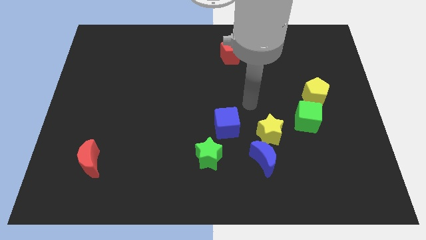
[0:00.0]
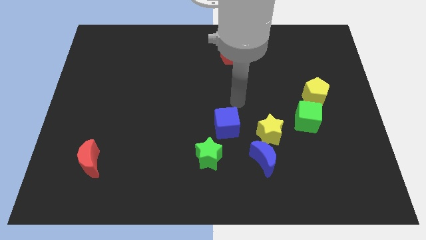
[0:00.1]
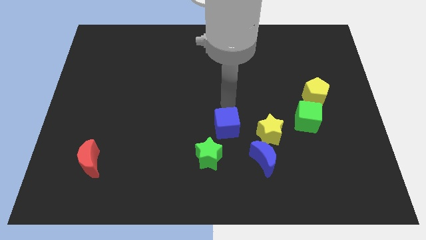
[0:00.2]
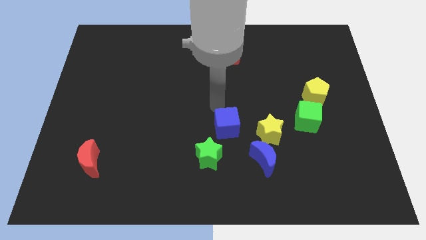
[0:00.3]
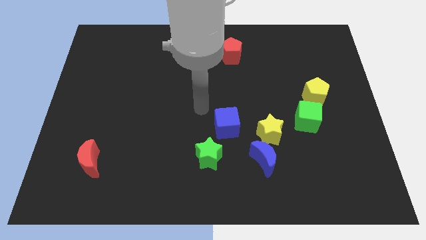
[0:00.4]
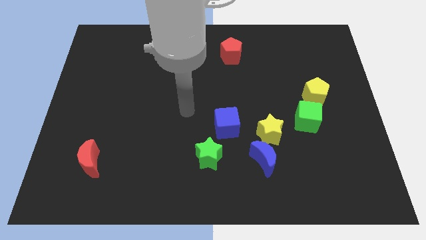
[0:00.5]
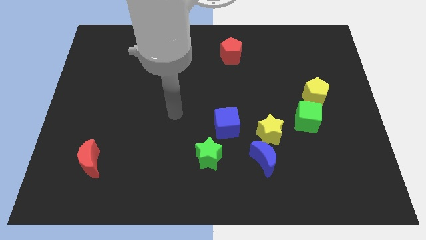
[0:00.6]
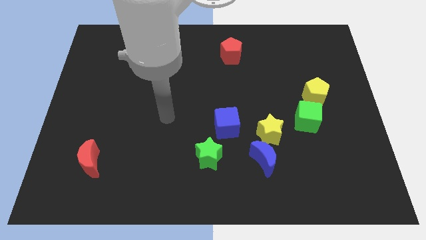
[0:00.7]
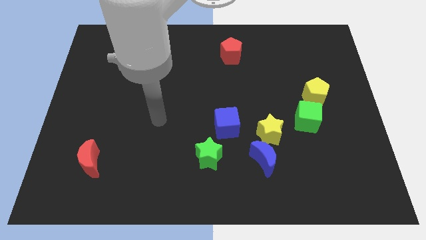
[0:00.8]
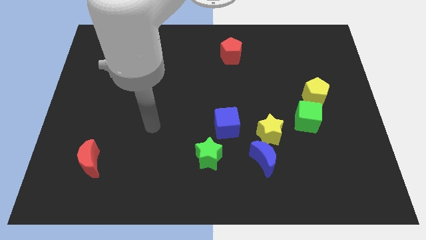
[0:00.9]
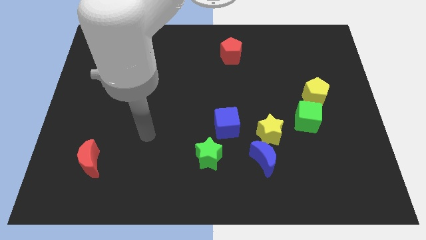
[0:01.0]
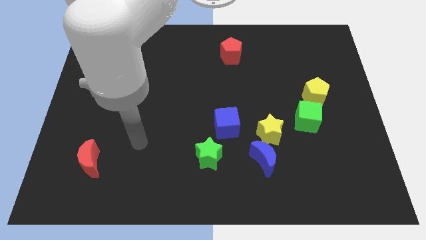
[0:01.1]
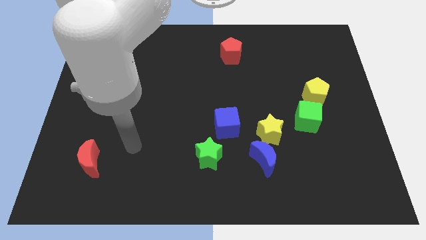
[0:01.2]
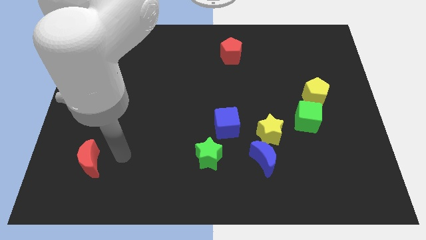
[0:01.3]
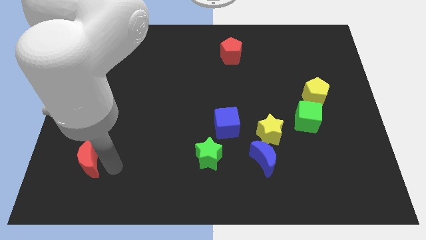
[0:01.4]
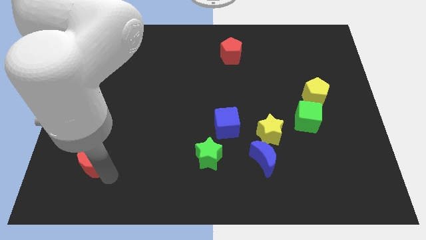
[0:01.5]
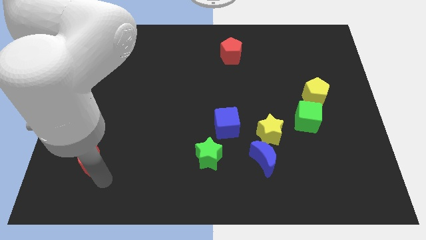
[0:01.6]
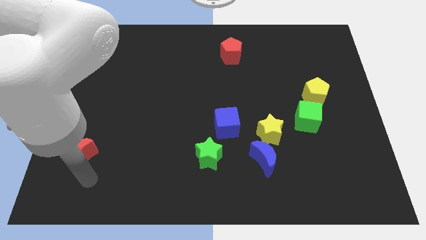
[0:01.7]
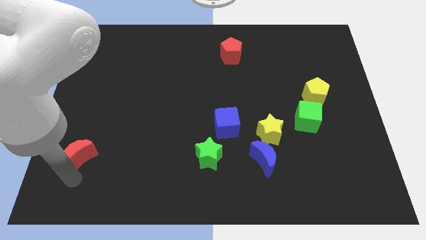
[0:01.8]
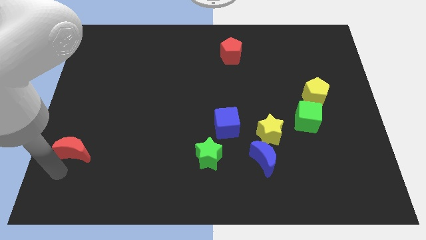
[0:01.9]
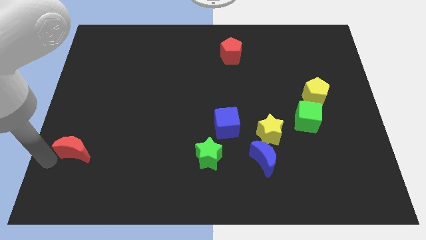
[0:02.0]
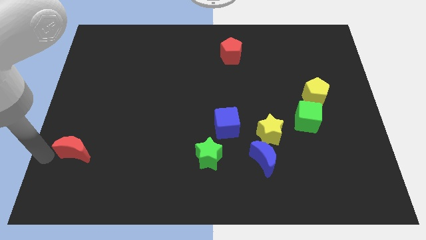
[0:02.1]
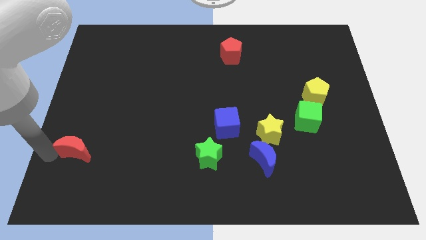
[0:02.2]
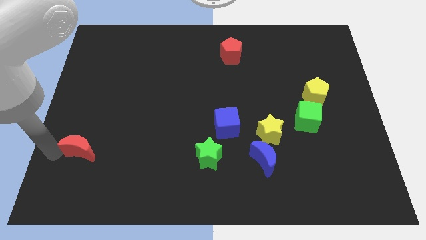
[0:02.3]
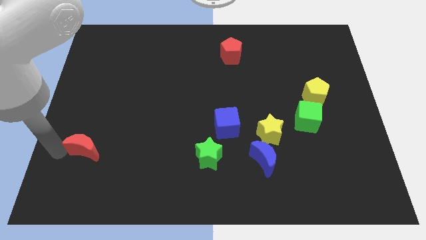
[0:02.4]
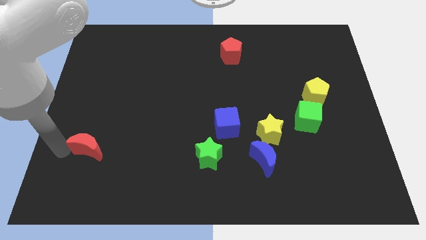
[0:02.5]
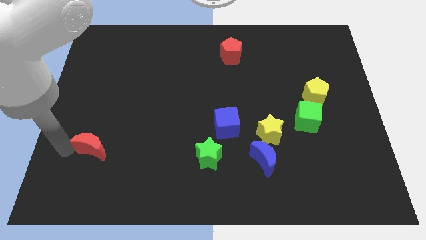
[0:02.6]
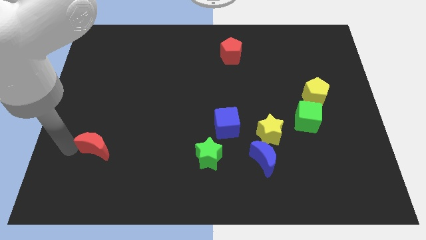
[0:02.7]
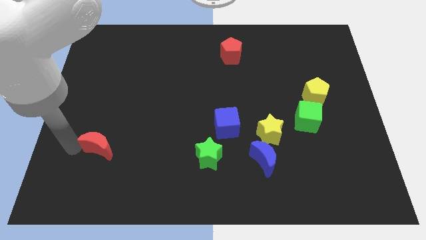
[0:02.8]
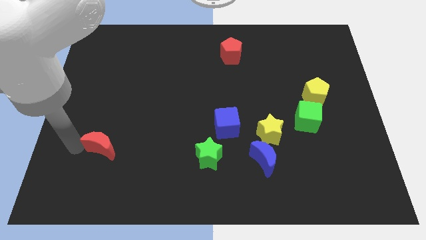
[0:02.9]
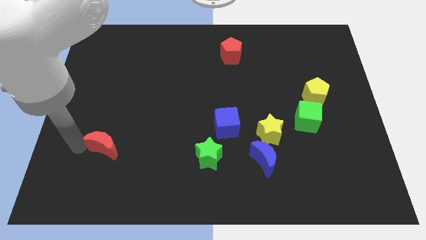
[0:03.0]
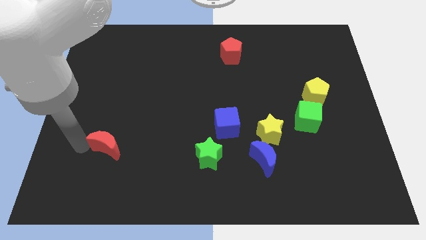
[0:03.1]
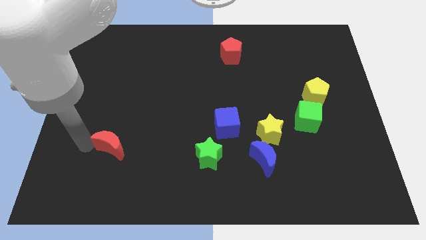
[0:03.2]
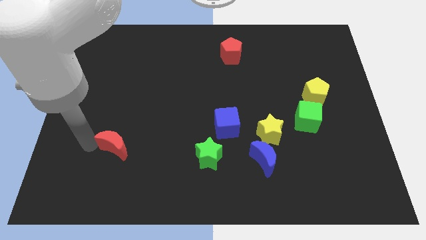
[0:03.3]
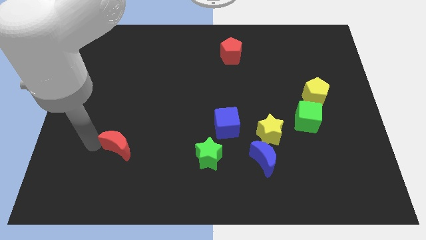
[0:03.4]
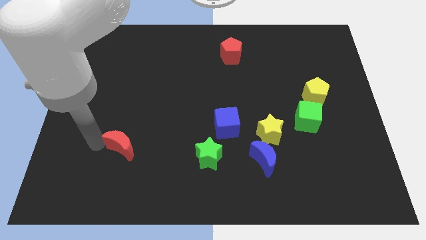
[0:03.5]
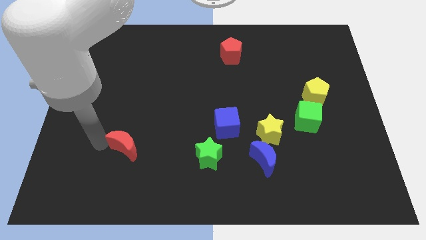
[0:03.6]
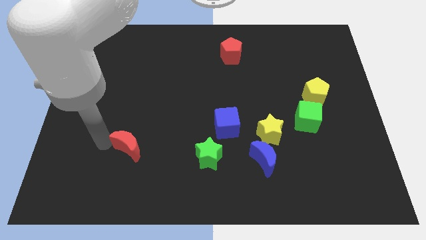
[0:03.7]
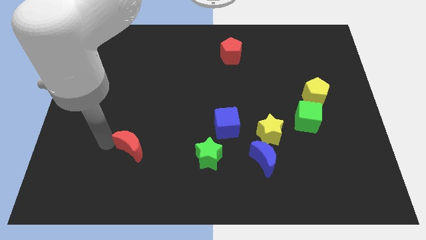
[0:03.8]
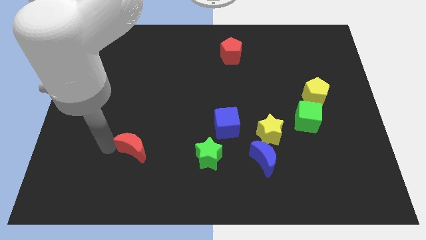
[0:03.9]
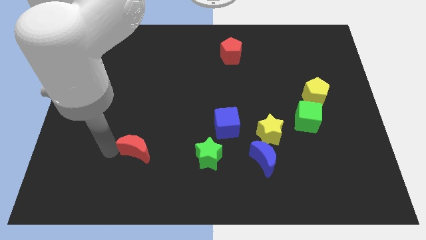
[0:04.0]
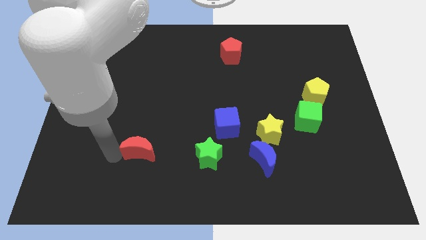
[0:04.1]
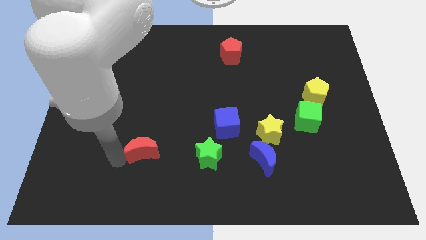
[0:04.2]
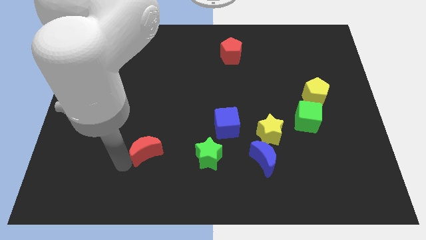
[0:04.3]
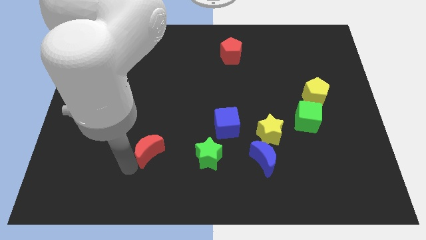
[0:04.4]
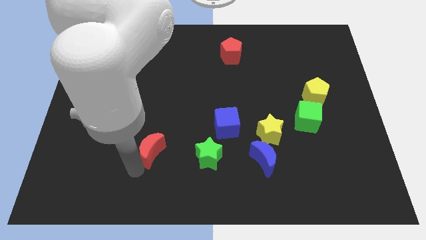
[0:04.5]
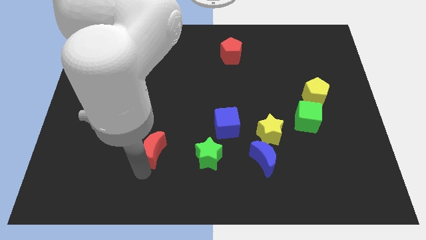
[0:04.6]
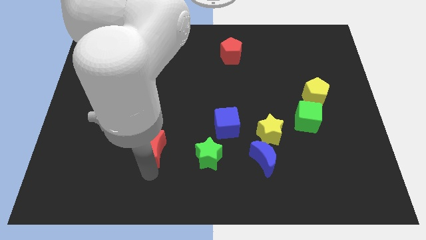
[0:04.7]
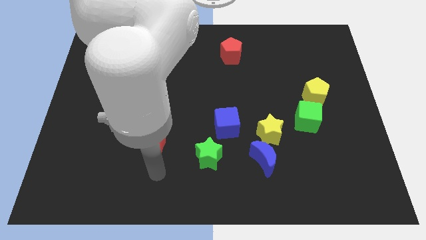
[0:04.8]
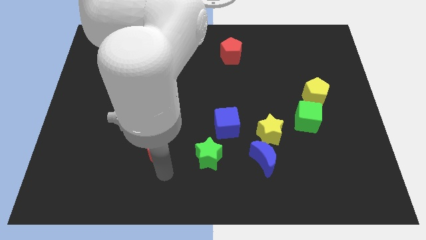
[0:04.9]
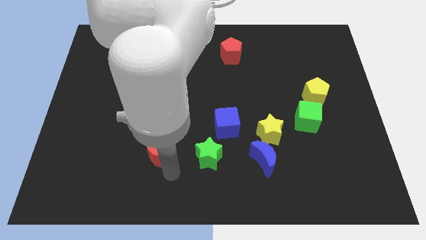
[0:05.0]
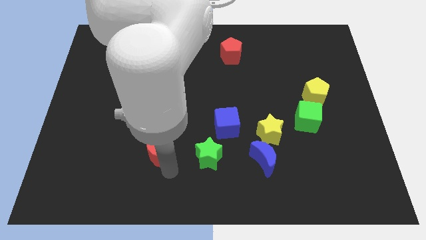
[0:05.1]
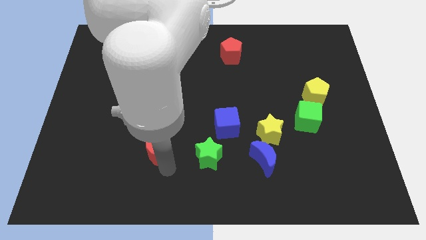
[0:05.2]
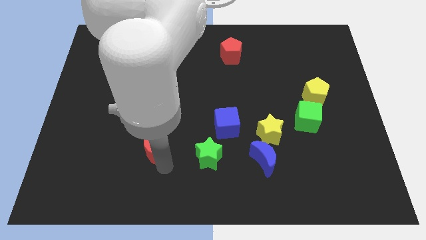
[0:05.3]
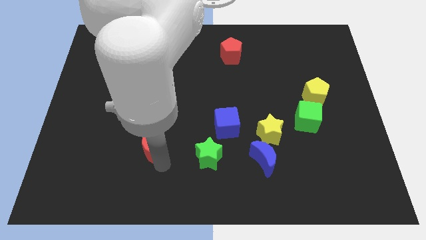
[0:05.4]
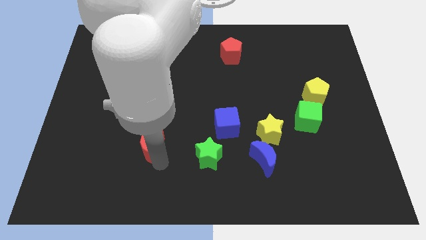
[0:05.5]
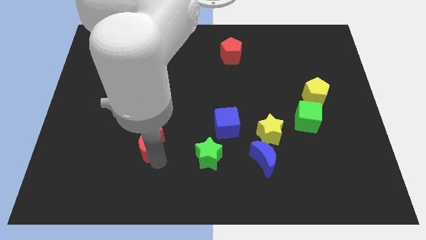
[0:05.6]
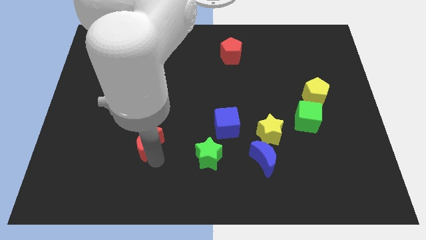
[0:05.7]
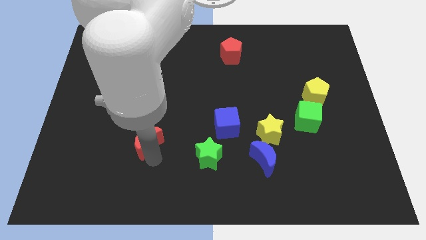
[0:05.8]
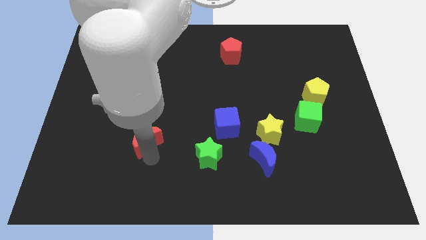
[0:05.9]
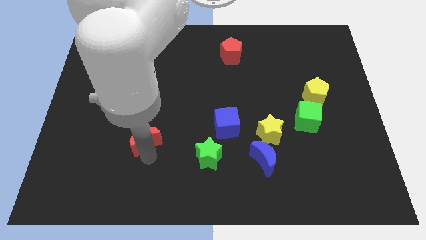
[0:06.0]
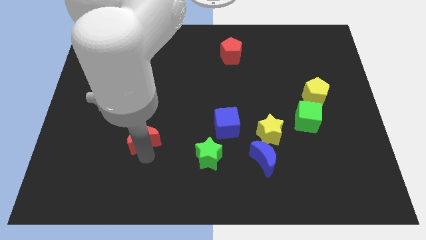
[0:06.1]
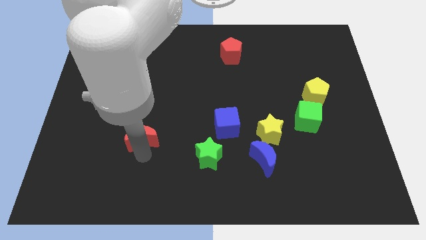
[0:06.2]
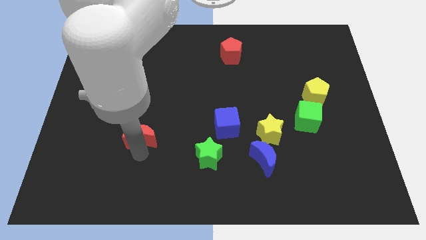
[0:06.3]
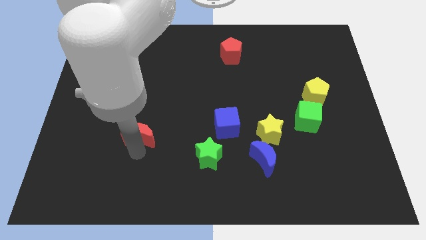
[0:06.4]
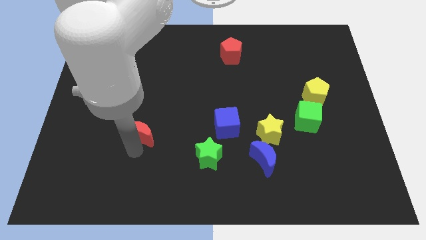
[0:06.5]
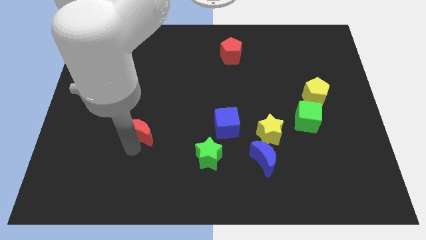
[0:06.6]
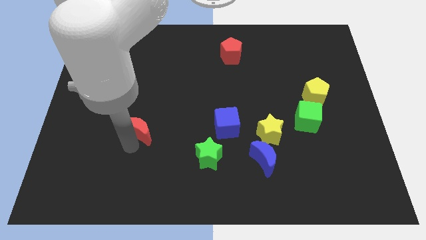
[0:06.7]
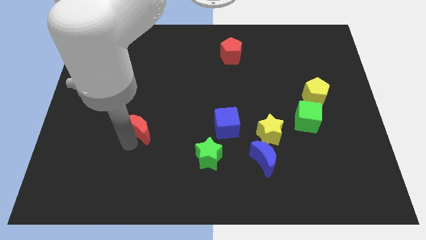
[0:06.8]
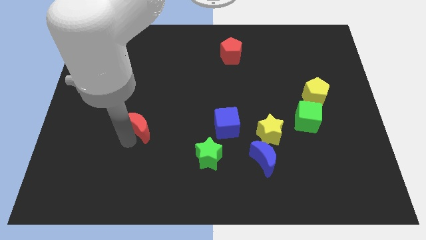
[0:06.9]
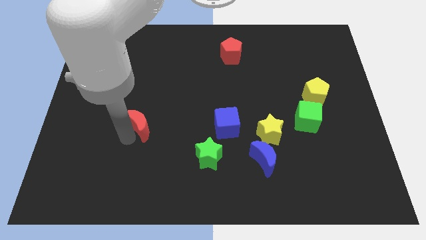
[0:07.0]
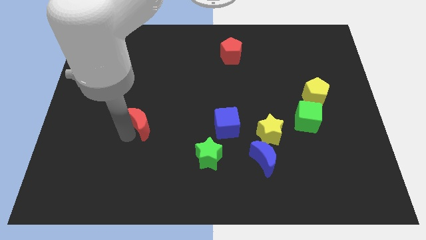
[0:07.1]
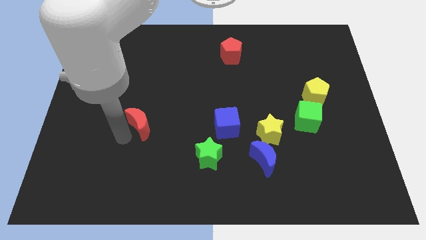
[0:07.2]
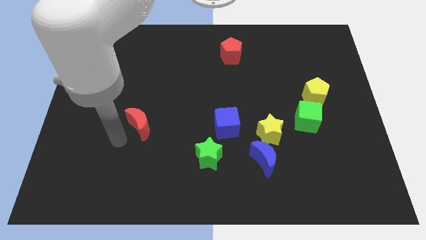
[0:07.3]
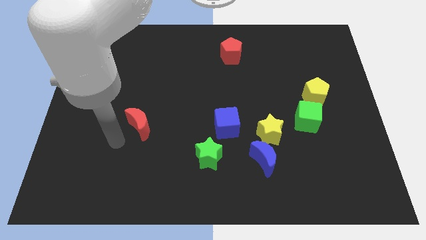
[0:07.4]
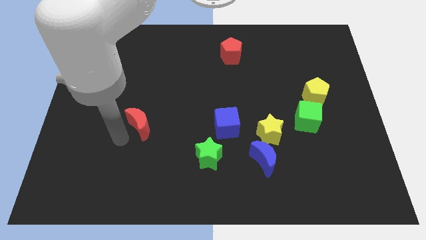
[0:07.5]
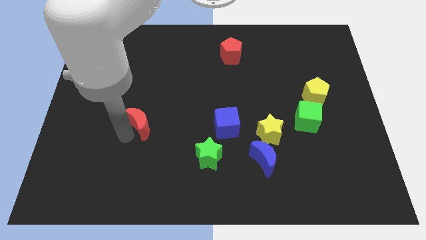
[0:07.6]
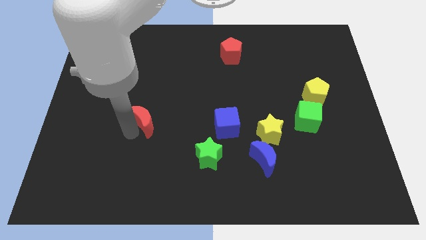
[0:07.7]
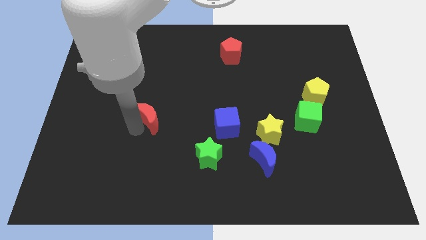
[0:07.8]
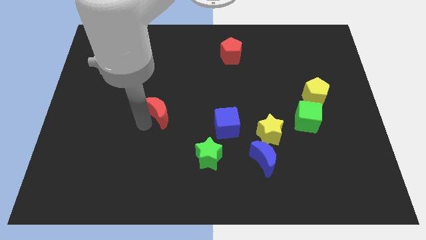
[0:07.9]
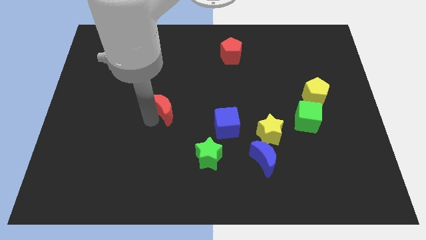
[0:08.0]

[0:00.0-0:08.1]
push the red moon upwards and to the right diagonally

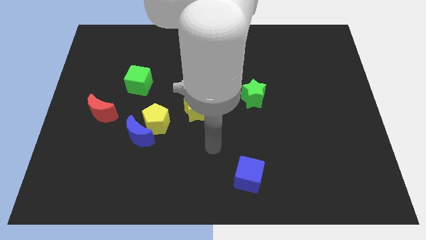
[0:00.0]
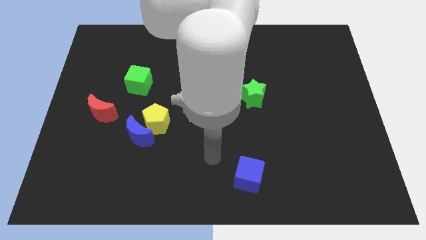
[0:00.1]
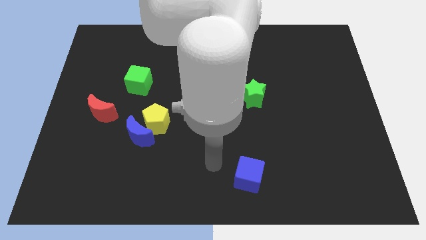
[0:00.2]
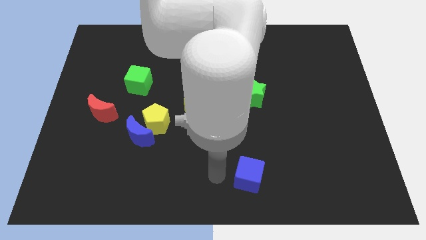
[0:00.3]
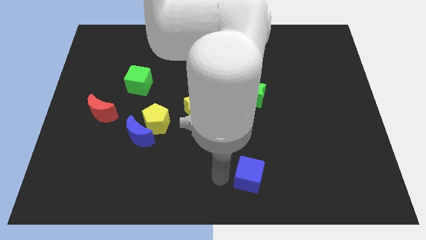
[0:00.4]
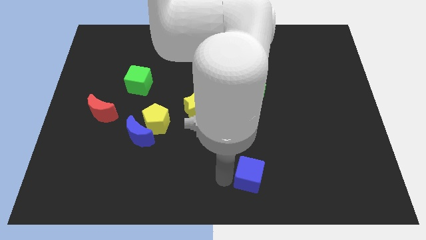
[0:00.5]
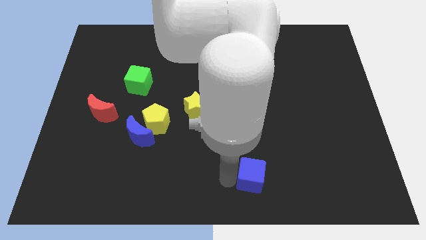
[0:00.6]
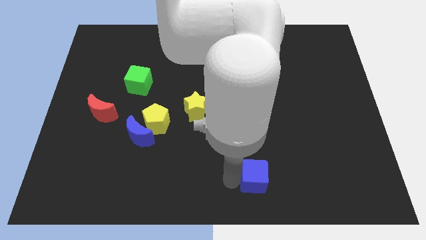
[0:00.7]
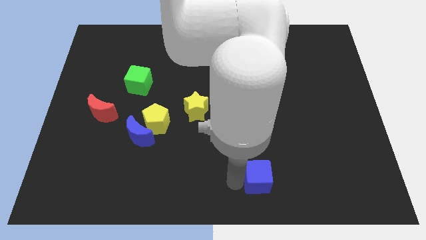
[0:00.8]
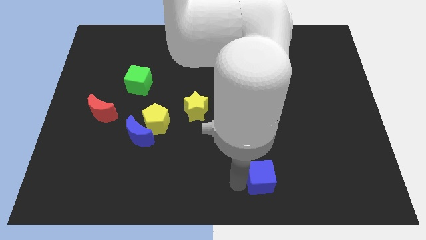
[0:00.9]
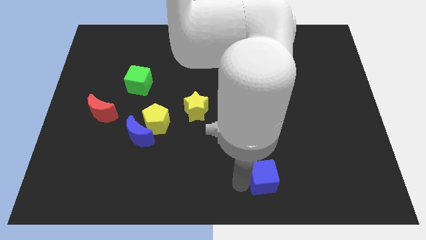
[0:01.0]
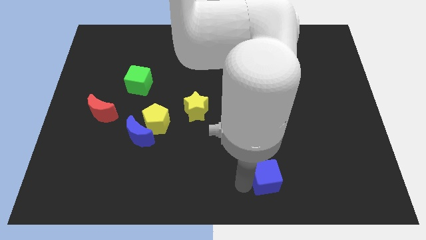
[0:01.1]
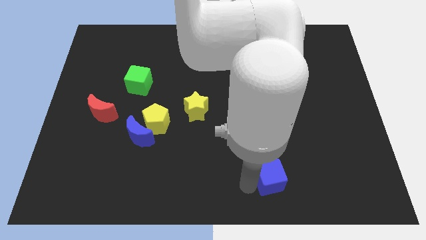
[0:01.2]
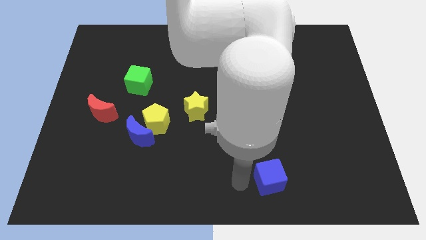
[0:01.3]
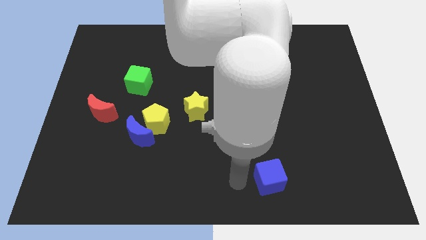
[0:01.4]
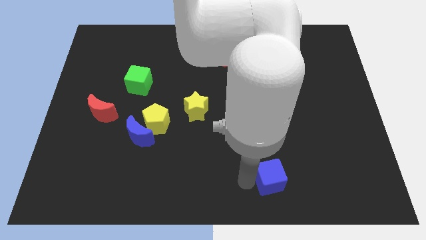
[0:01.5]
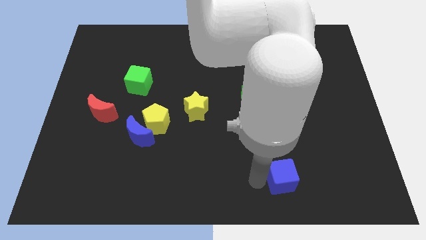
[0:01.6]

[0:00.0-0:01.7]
move the blue cube slightly right
